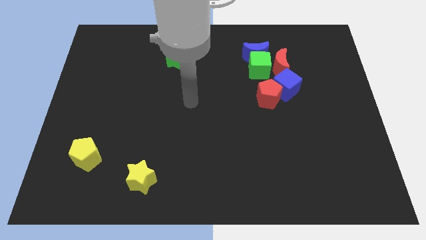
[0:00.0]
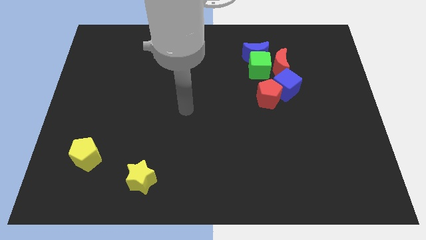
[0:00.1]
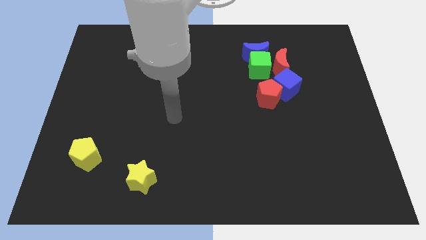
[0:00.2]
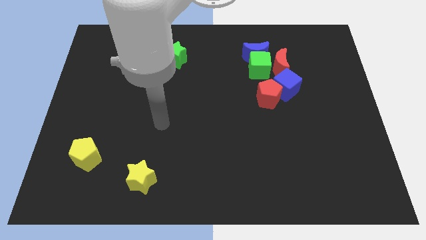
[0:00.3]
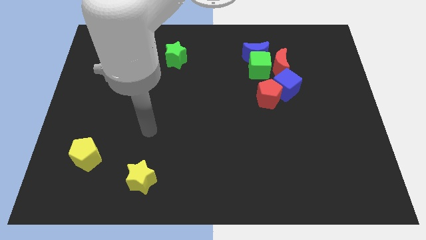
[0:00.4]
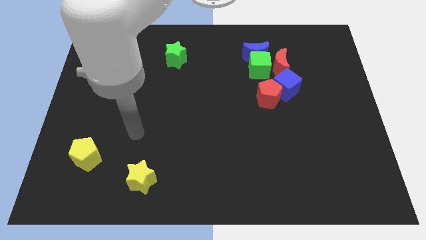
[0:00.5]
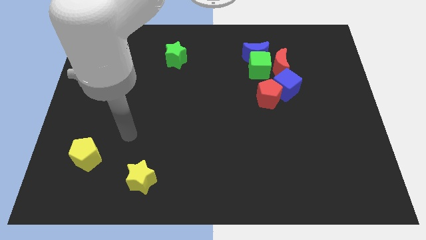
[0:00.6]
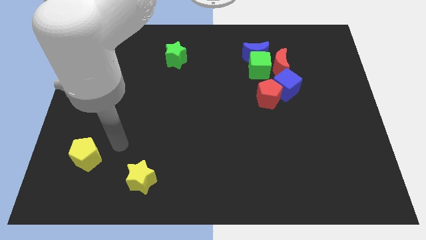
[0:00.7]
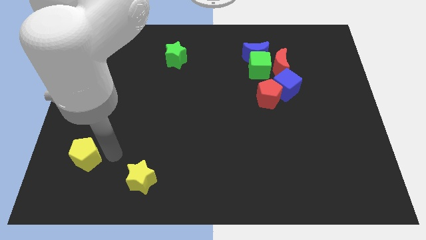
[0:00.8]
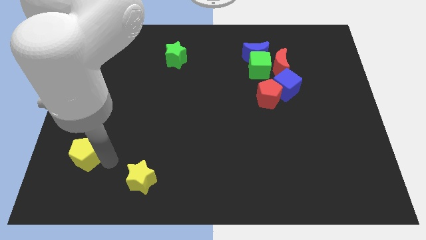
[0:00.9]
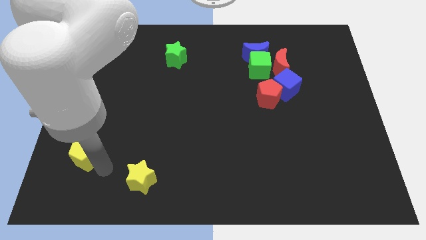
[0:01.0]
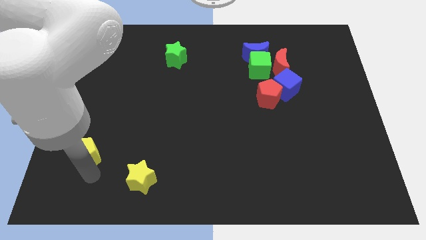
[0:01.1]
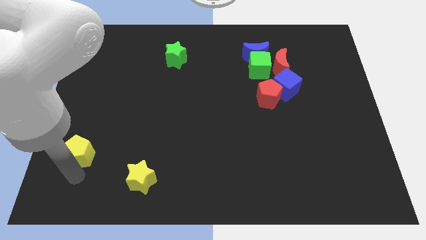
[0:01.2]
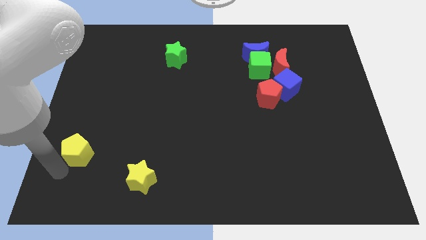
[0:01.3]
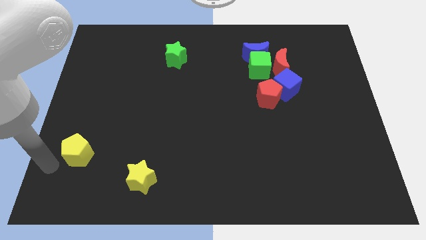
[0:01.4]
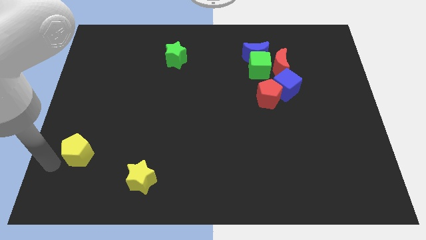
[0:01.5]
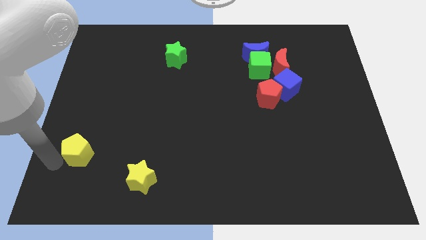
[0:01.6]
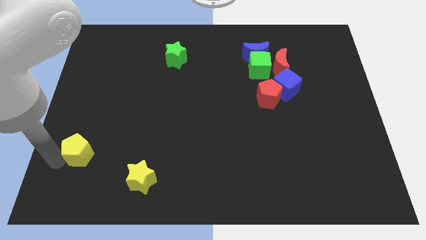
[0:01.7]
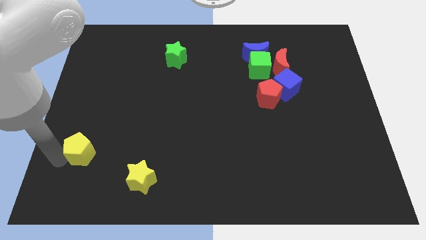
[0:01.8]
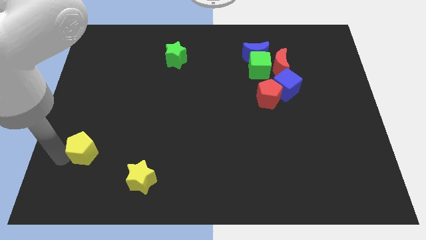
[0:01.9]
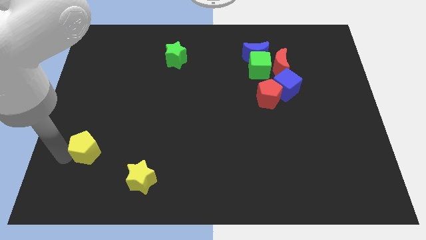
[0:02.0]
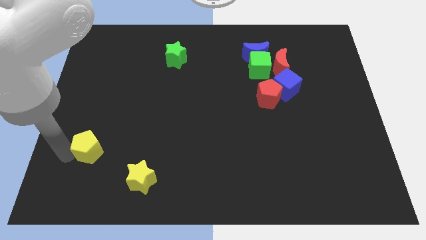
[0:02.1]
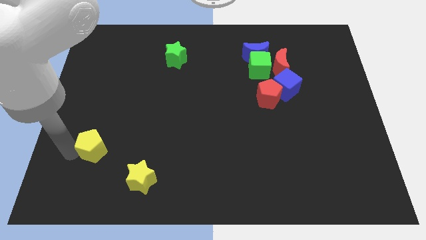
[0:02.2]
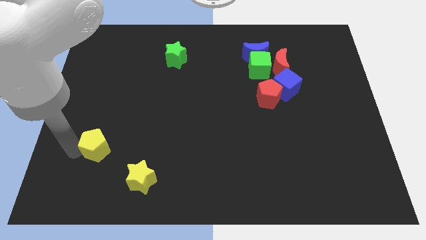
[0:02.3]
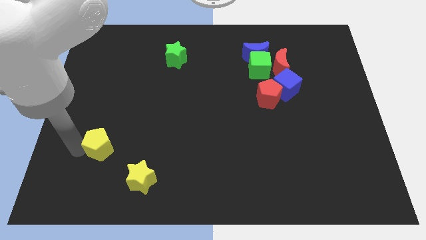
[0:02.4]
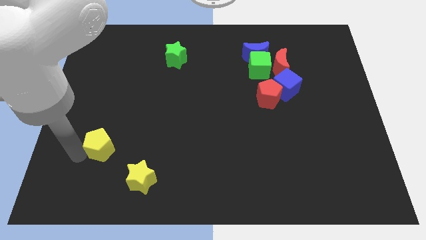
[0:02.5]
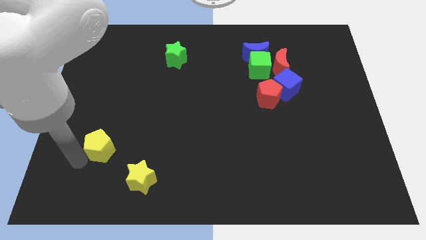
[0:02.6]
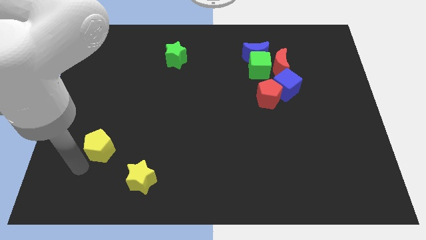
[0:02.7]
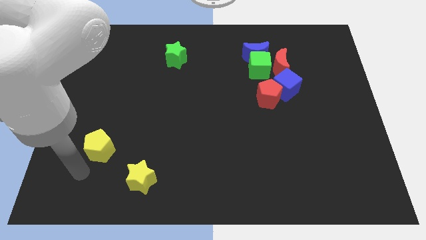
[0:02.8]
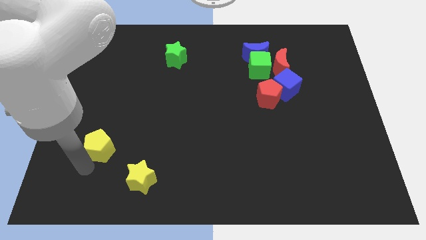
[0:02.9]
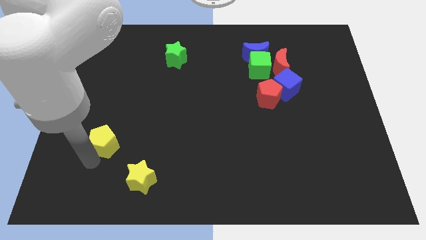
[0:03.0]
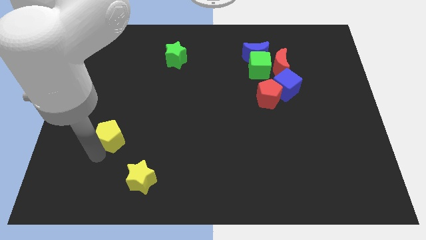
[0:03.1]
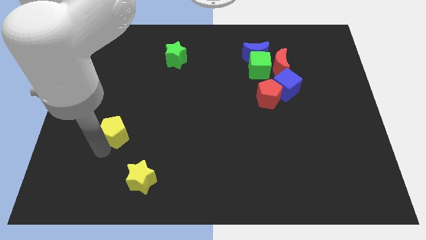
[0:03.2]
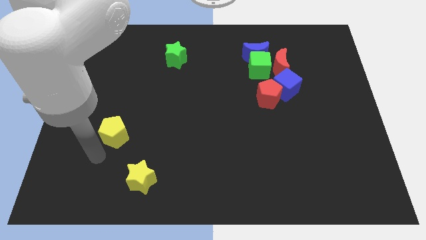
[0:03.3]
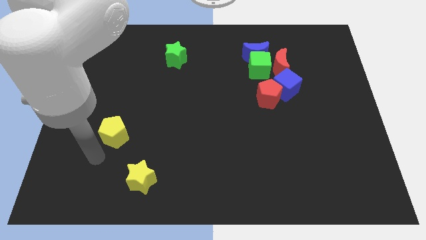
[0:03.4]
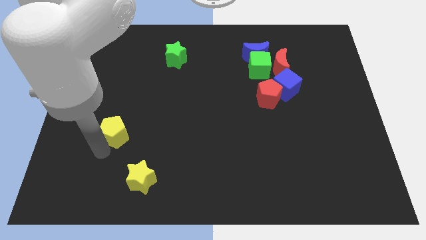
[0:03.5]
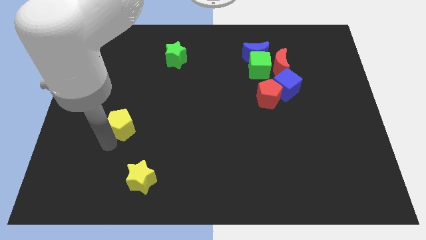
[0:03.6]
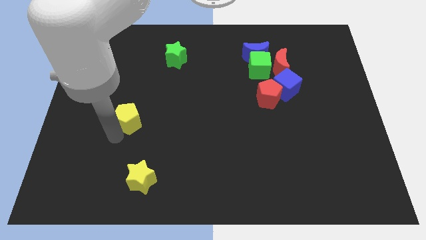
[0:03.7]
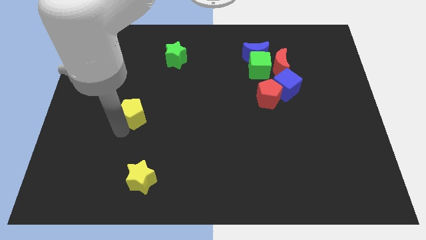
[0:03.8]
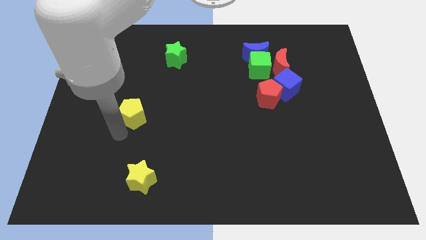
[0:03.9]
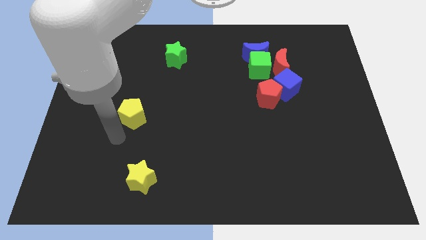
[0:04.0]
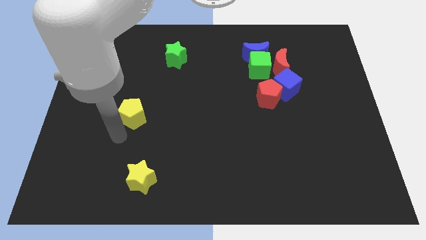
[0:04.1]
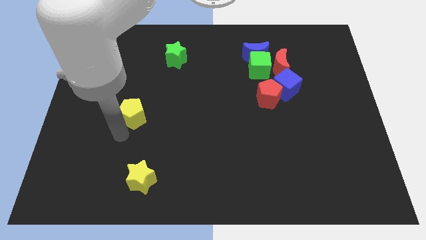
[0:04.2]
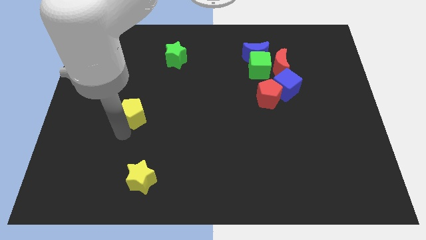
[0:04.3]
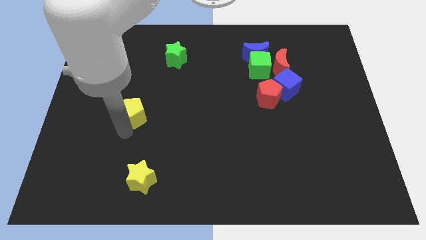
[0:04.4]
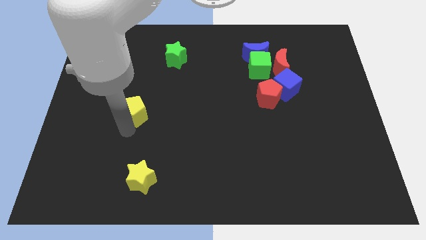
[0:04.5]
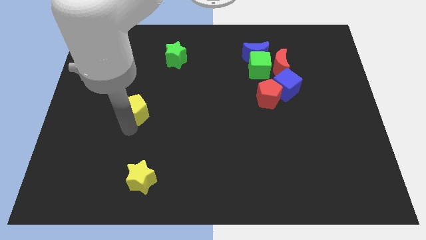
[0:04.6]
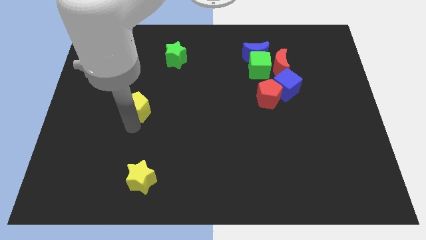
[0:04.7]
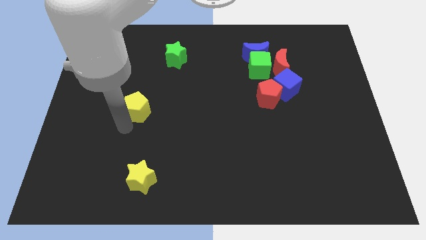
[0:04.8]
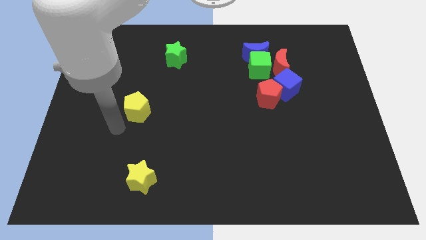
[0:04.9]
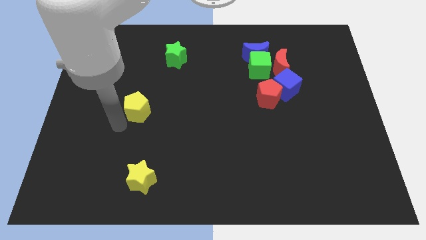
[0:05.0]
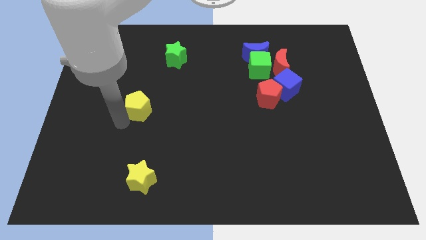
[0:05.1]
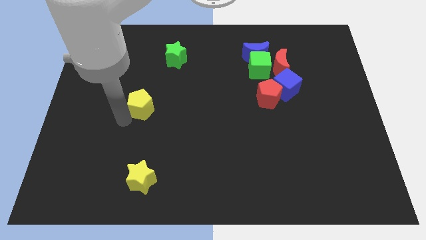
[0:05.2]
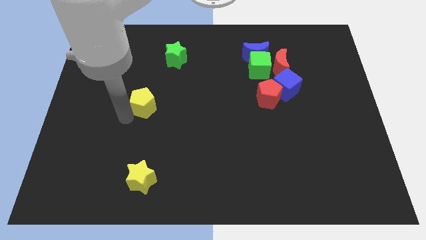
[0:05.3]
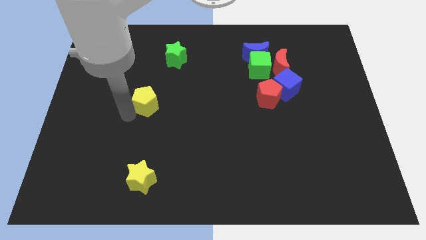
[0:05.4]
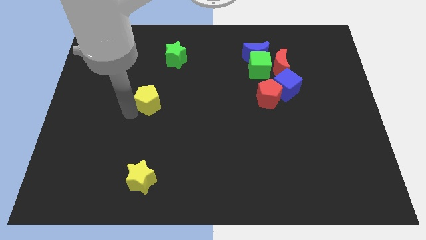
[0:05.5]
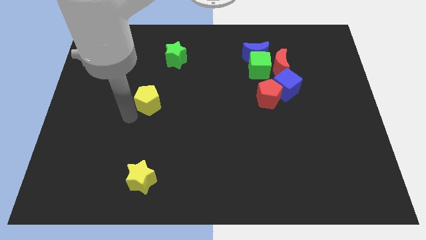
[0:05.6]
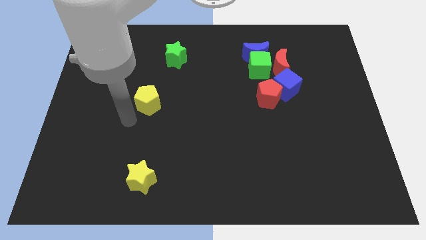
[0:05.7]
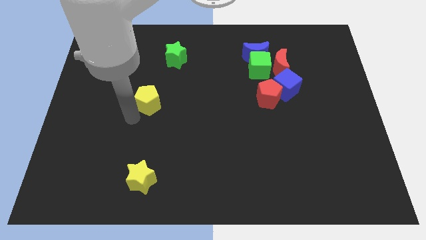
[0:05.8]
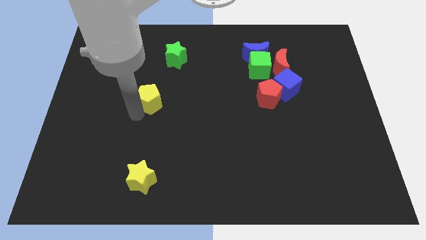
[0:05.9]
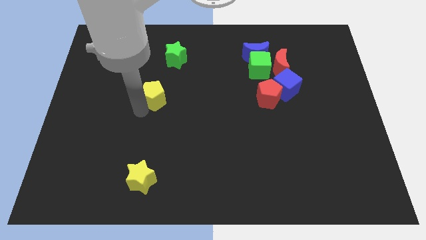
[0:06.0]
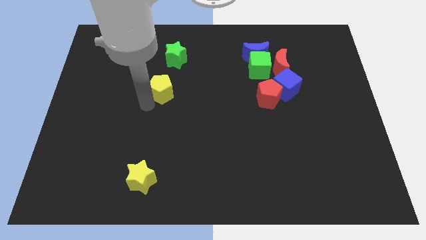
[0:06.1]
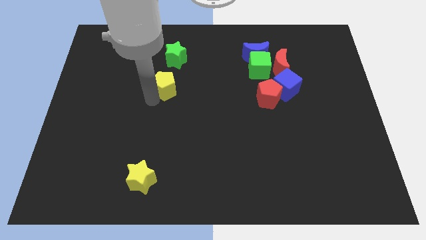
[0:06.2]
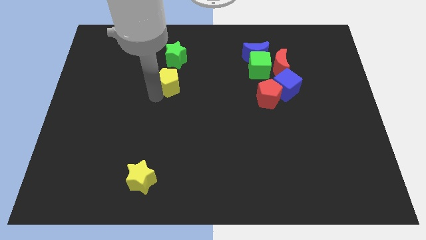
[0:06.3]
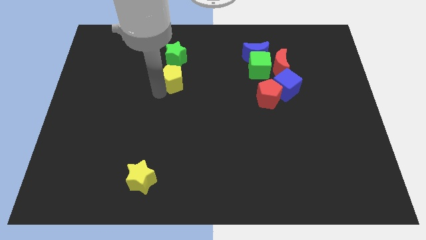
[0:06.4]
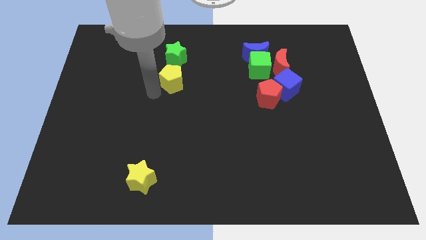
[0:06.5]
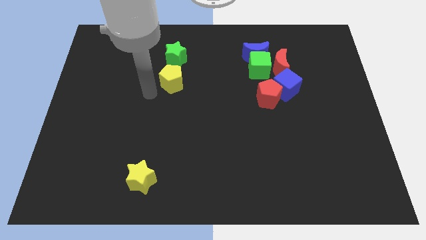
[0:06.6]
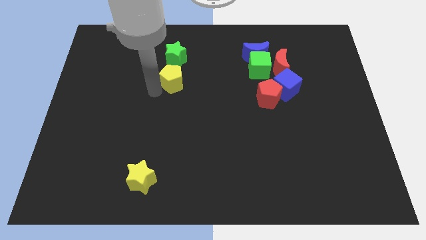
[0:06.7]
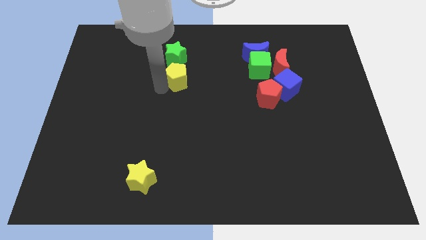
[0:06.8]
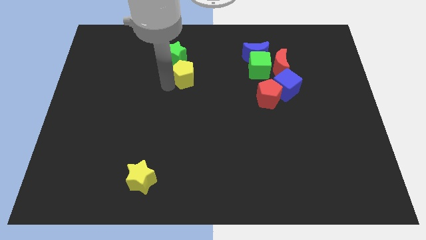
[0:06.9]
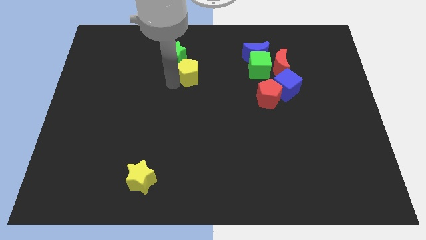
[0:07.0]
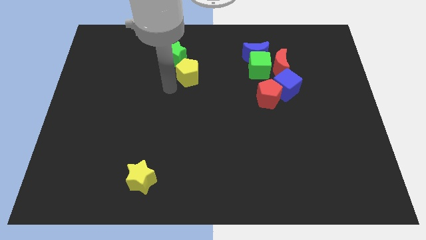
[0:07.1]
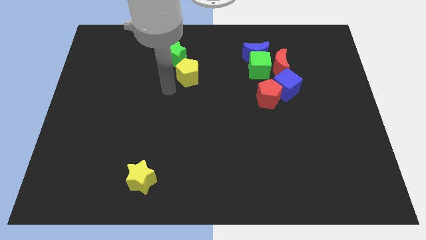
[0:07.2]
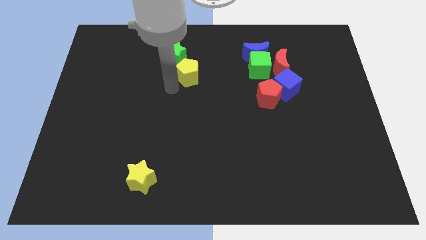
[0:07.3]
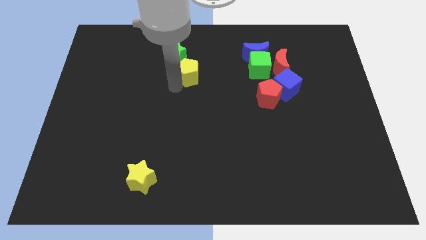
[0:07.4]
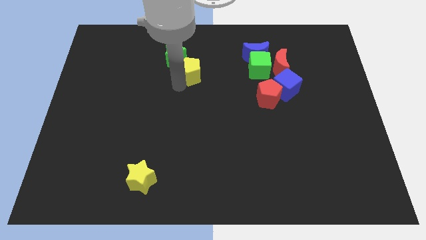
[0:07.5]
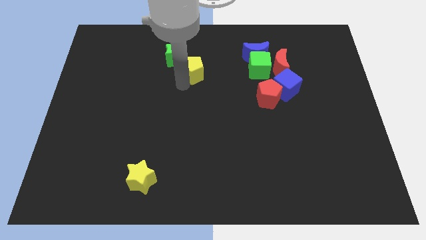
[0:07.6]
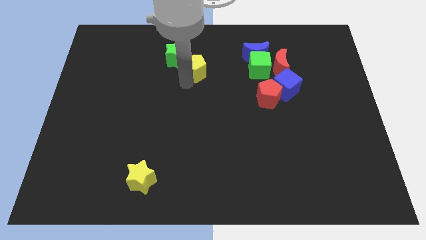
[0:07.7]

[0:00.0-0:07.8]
push the yellow pentagon just right of the green star
